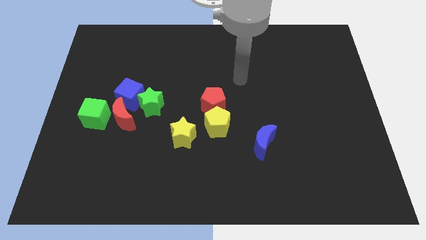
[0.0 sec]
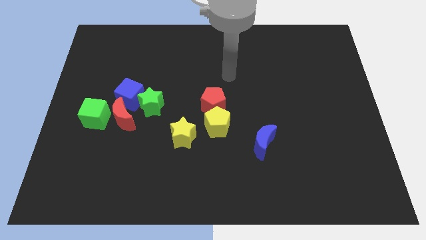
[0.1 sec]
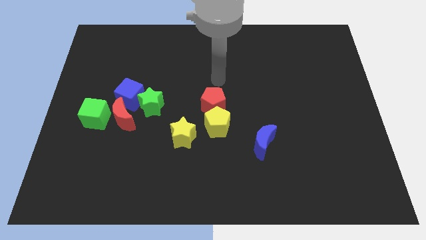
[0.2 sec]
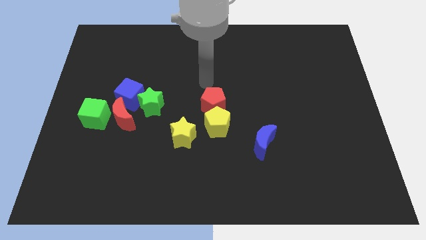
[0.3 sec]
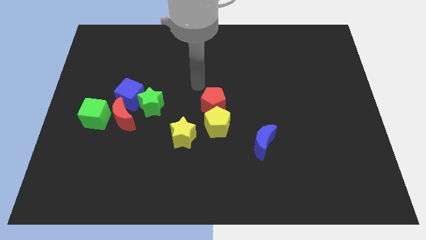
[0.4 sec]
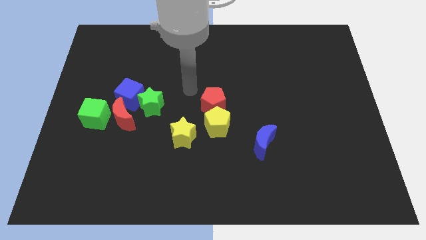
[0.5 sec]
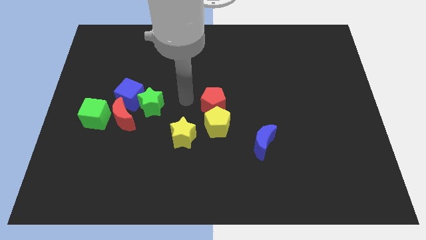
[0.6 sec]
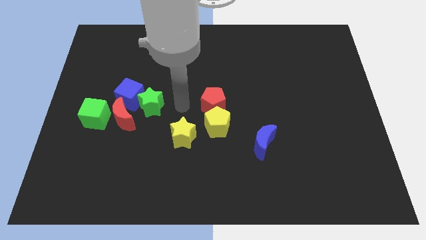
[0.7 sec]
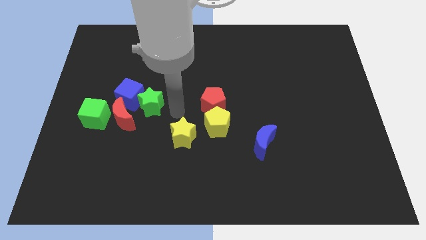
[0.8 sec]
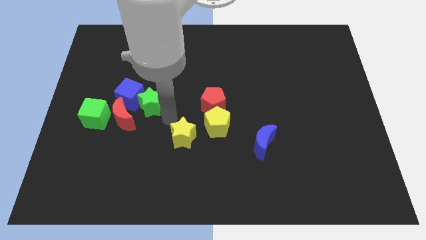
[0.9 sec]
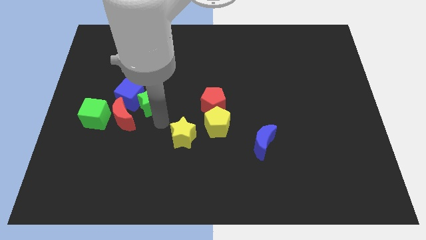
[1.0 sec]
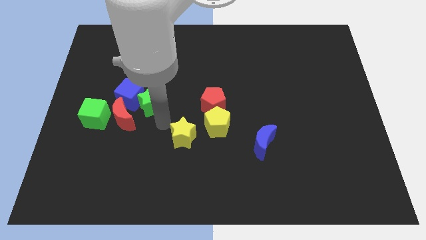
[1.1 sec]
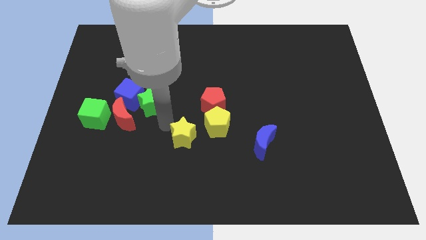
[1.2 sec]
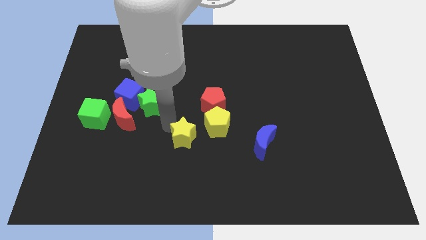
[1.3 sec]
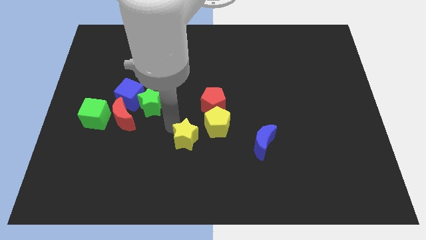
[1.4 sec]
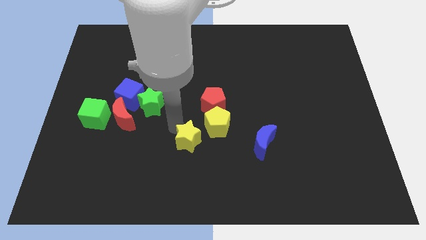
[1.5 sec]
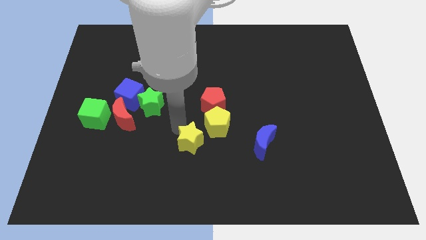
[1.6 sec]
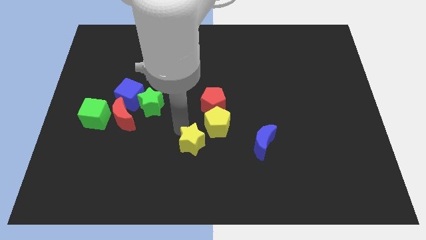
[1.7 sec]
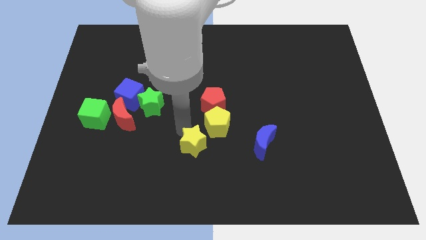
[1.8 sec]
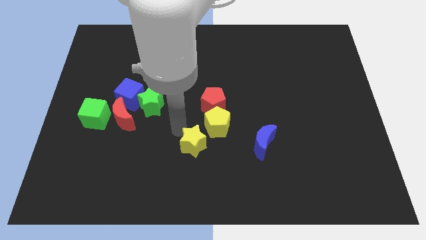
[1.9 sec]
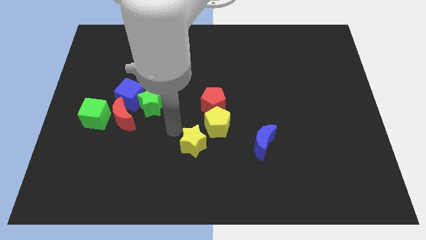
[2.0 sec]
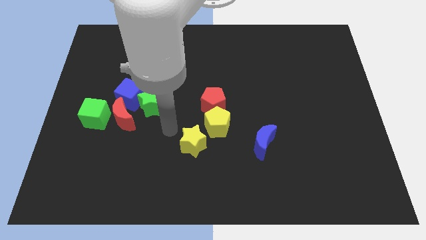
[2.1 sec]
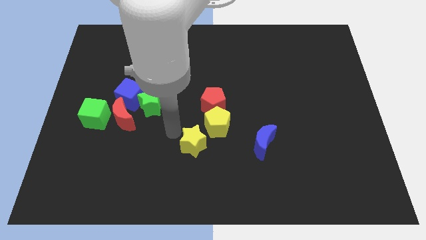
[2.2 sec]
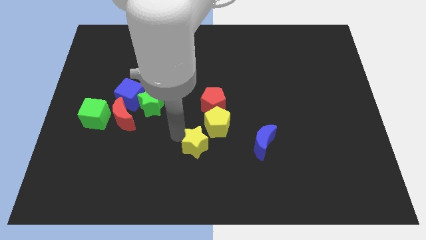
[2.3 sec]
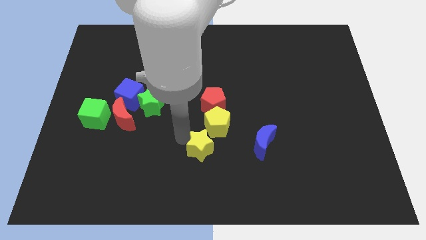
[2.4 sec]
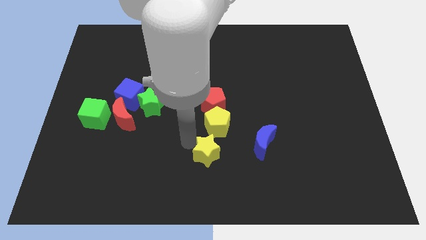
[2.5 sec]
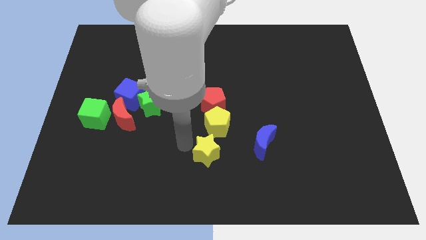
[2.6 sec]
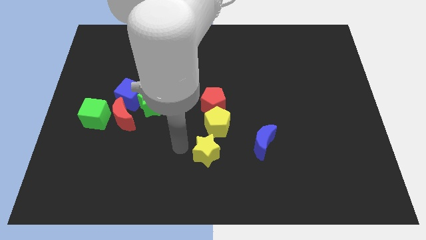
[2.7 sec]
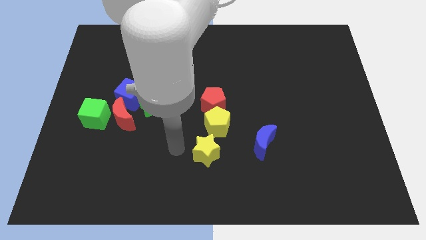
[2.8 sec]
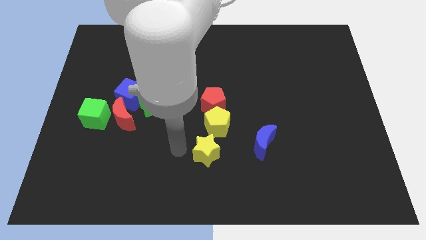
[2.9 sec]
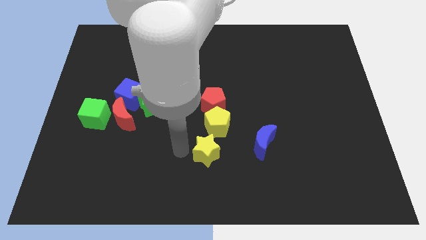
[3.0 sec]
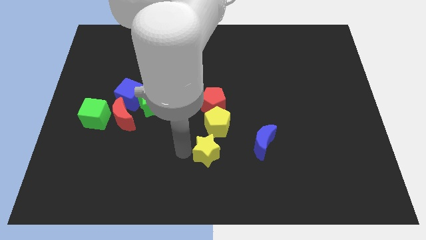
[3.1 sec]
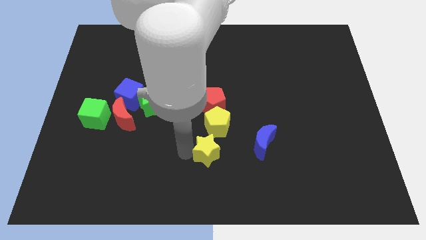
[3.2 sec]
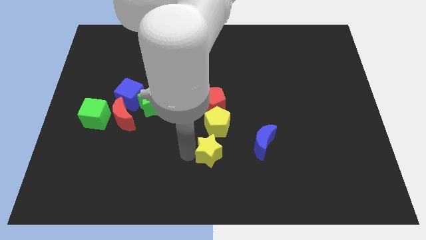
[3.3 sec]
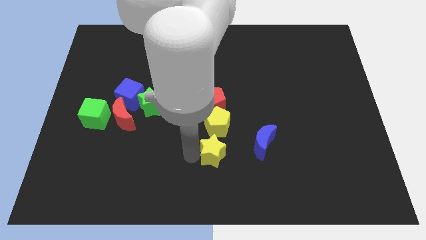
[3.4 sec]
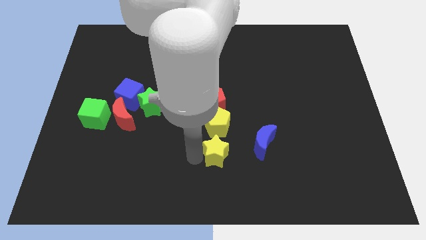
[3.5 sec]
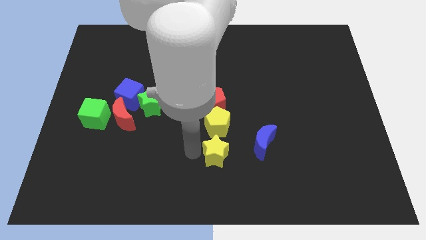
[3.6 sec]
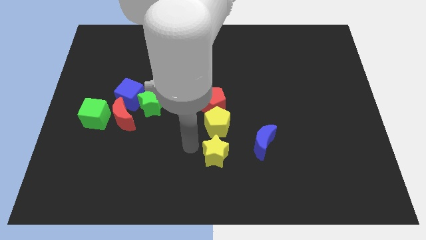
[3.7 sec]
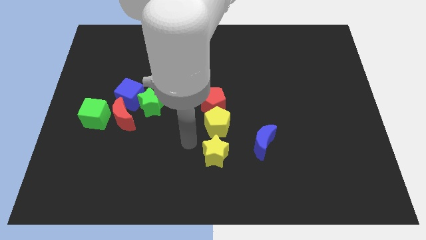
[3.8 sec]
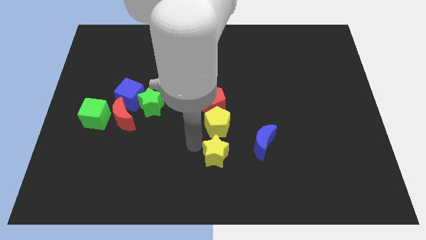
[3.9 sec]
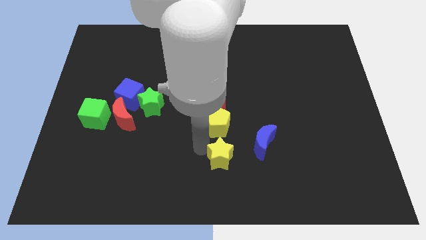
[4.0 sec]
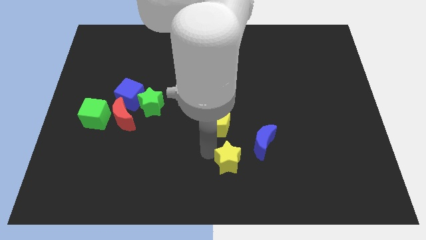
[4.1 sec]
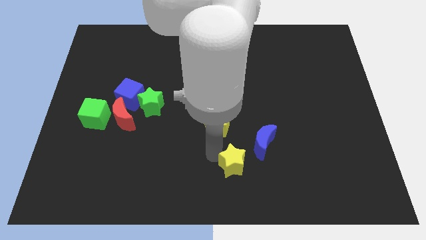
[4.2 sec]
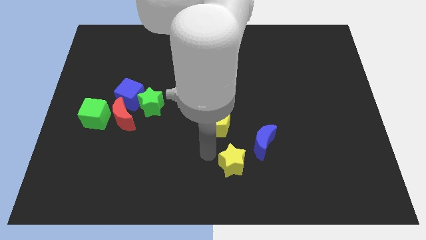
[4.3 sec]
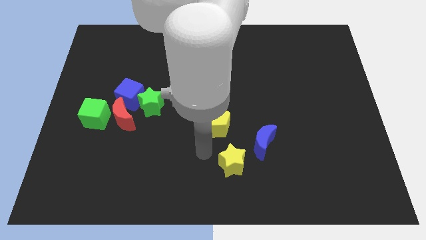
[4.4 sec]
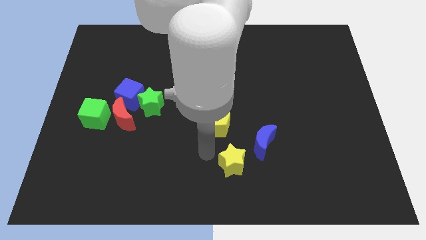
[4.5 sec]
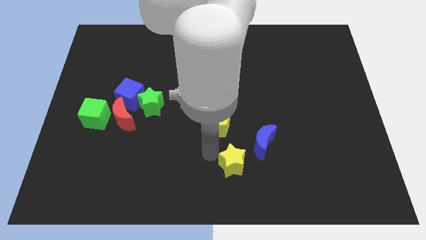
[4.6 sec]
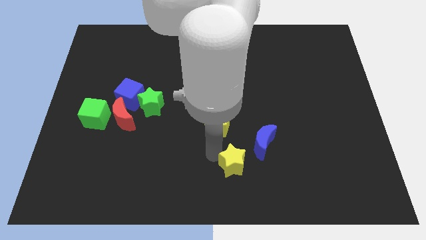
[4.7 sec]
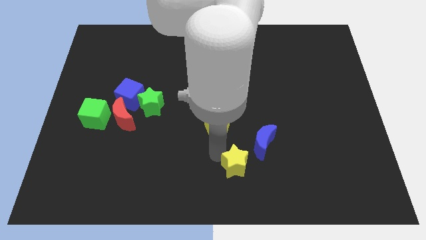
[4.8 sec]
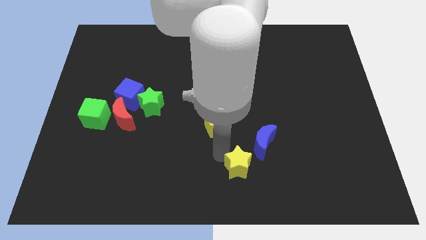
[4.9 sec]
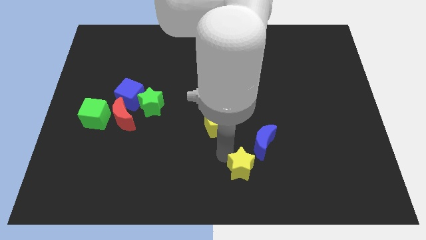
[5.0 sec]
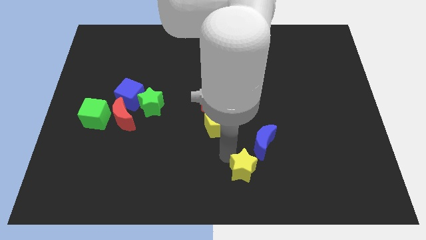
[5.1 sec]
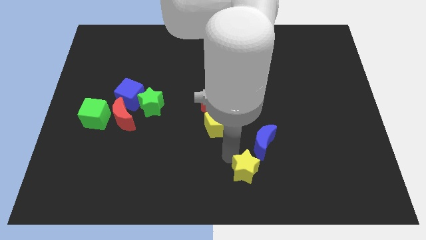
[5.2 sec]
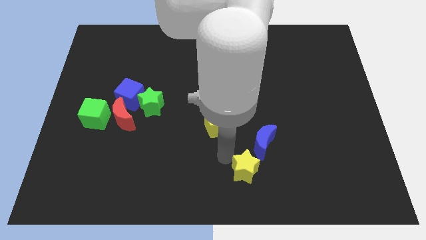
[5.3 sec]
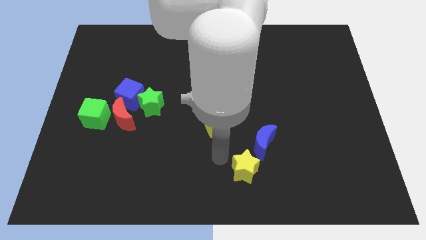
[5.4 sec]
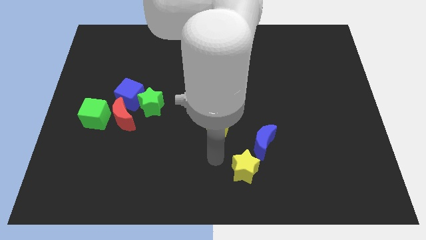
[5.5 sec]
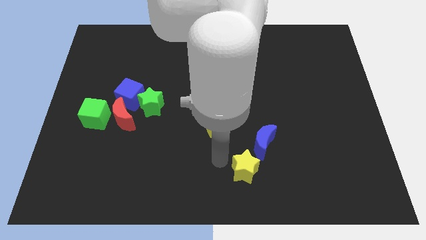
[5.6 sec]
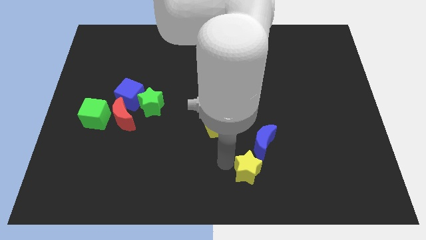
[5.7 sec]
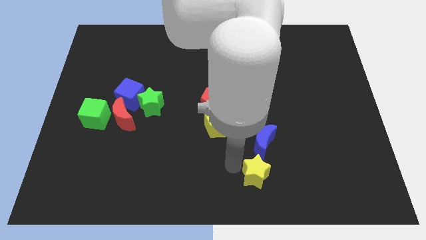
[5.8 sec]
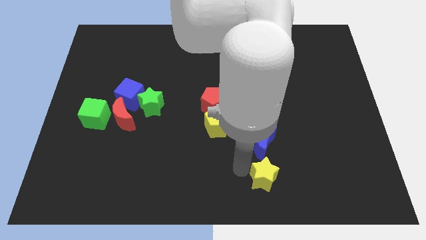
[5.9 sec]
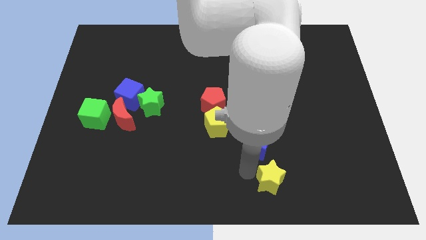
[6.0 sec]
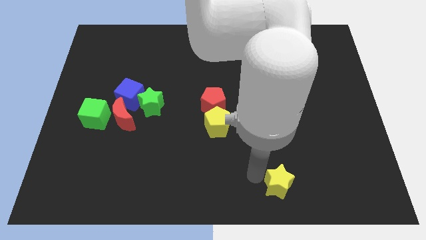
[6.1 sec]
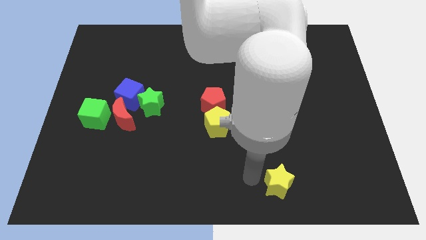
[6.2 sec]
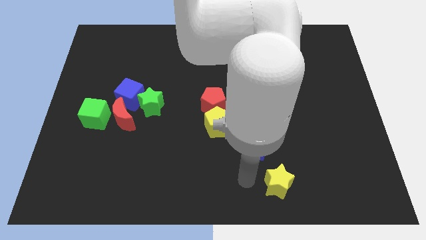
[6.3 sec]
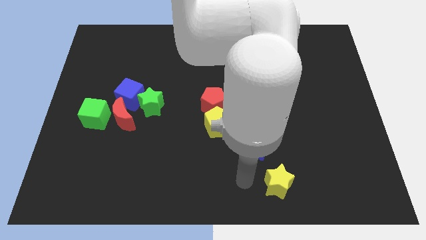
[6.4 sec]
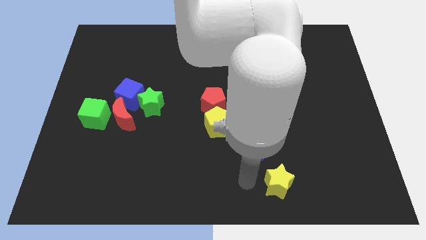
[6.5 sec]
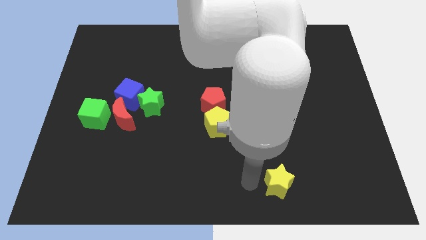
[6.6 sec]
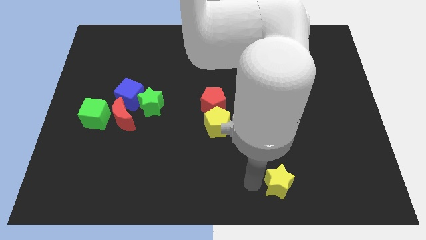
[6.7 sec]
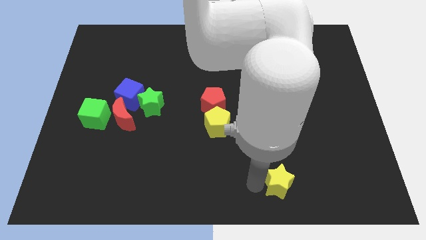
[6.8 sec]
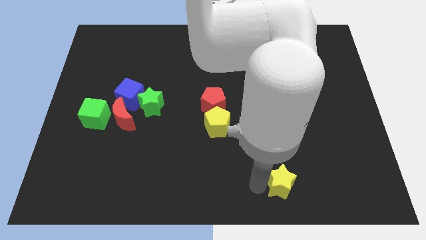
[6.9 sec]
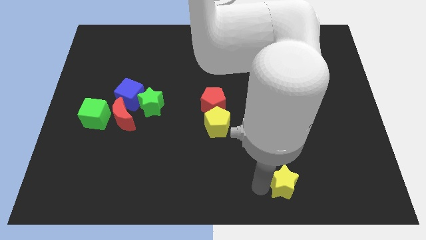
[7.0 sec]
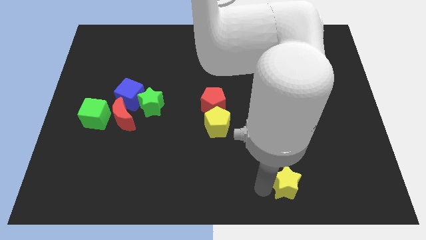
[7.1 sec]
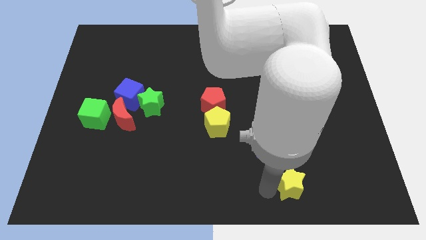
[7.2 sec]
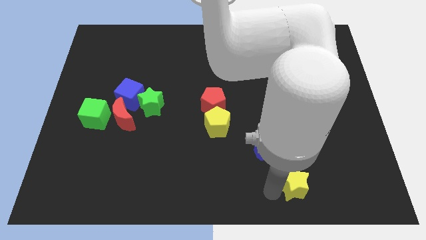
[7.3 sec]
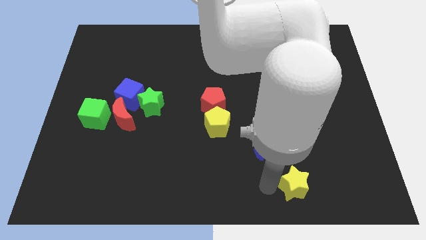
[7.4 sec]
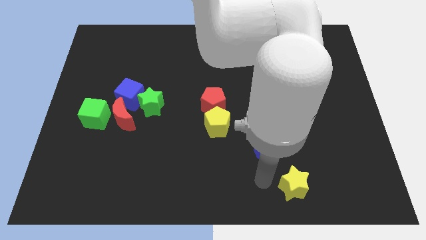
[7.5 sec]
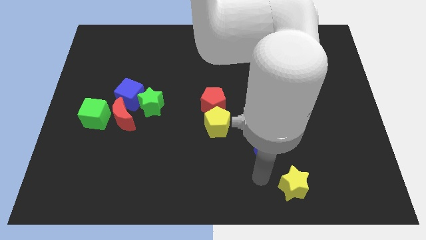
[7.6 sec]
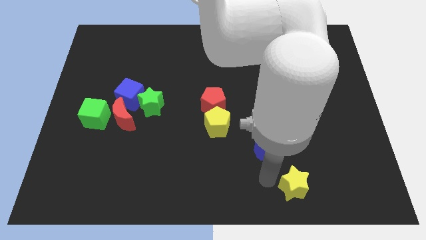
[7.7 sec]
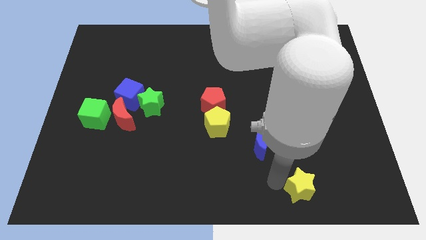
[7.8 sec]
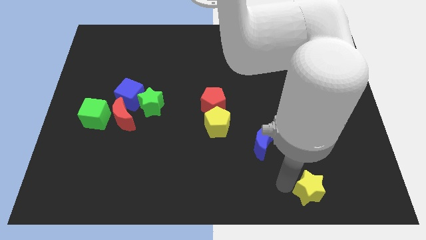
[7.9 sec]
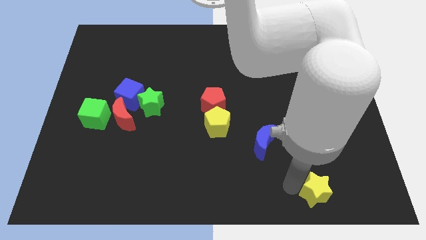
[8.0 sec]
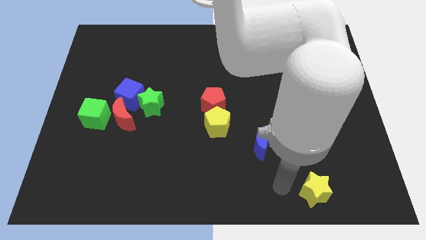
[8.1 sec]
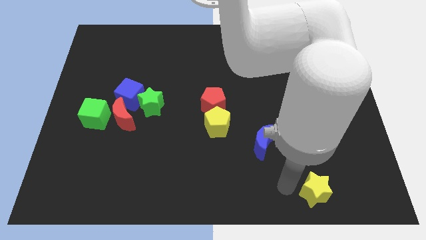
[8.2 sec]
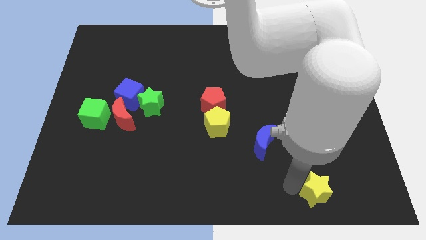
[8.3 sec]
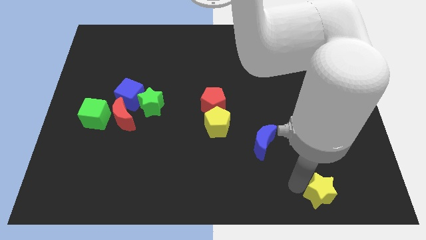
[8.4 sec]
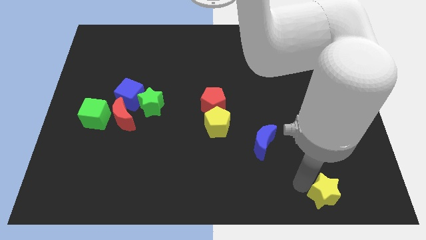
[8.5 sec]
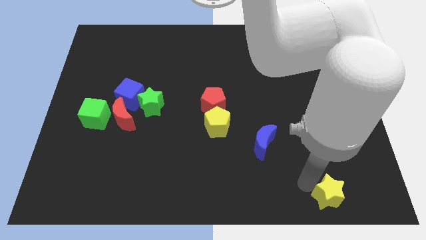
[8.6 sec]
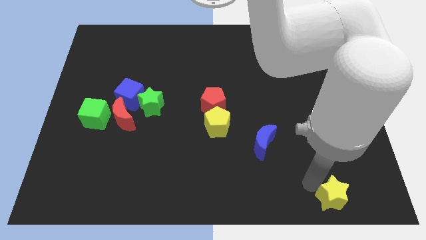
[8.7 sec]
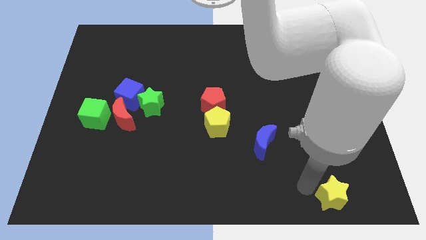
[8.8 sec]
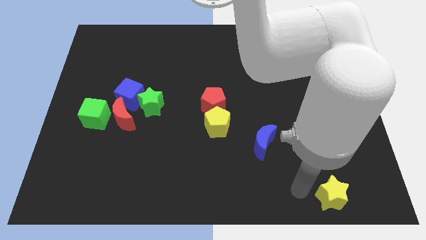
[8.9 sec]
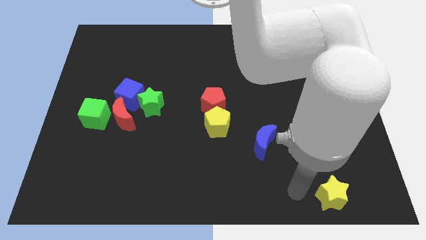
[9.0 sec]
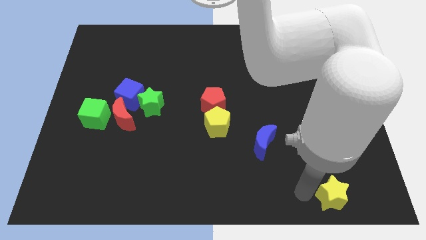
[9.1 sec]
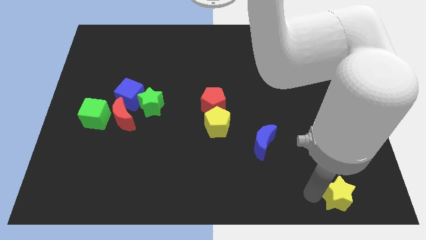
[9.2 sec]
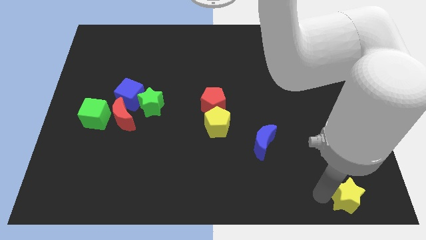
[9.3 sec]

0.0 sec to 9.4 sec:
put the yellow star to the lower right corner
